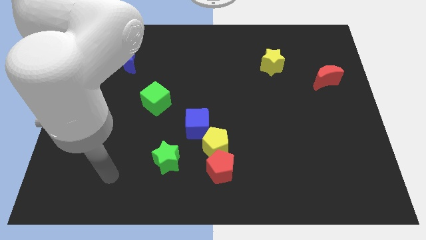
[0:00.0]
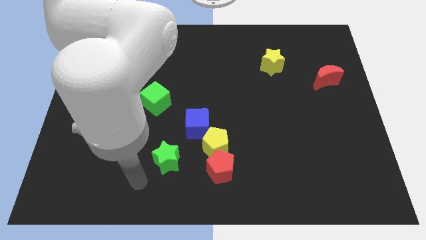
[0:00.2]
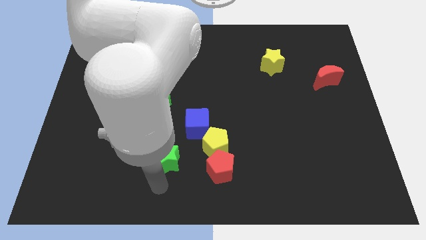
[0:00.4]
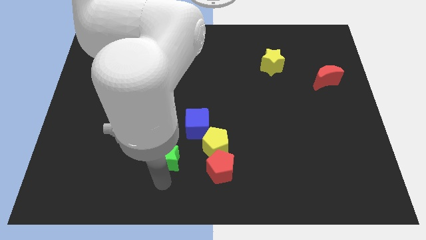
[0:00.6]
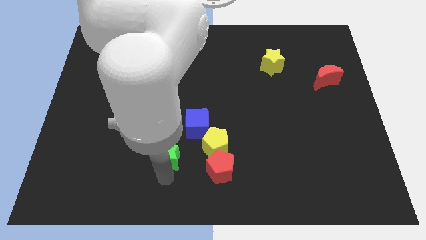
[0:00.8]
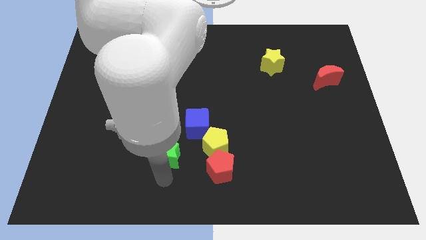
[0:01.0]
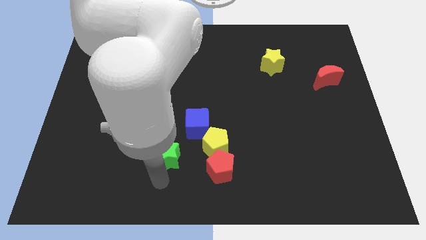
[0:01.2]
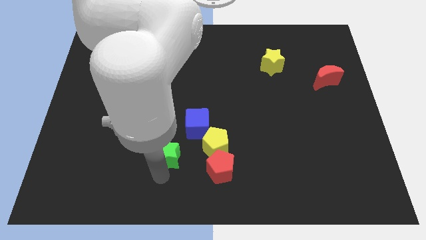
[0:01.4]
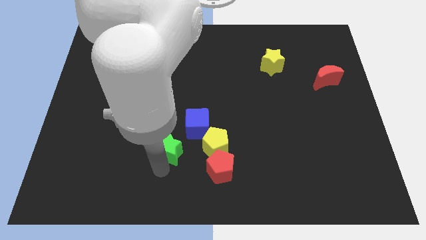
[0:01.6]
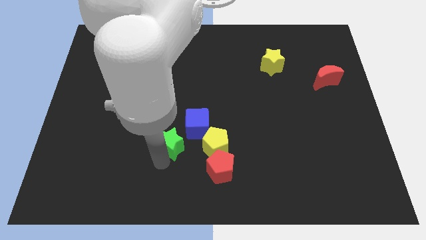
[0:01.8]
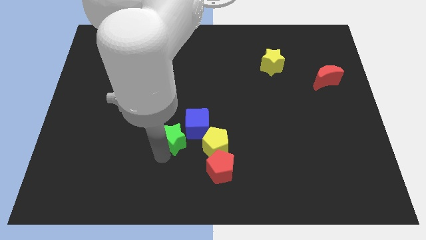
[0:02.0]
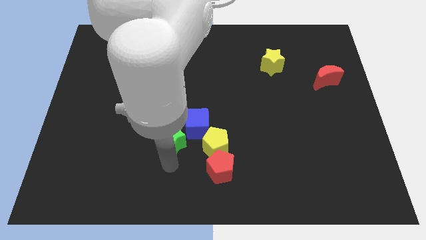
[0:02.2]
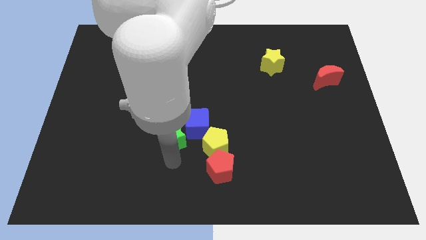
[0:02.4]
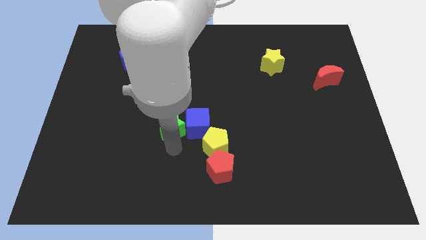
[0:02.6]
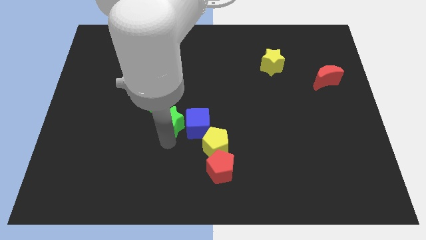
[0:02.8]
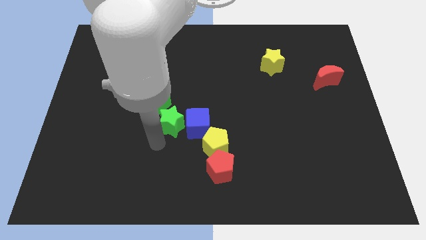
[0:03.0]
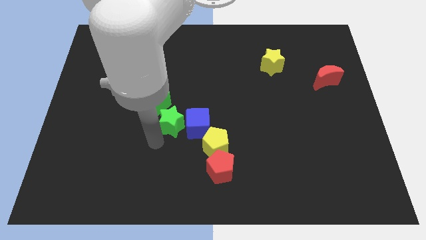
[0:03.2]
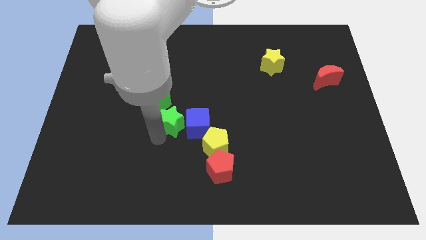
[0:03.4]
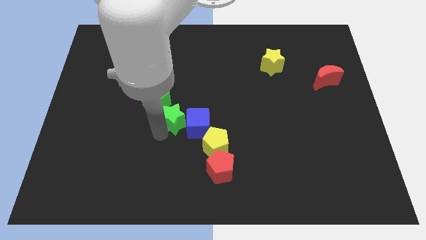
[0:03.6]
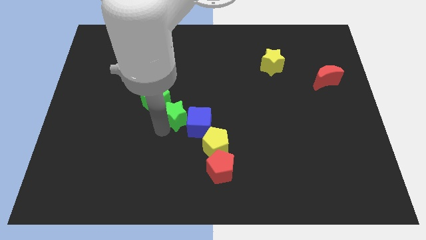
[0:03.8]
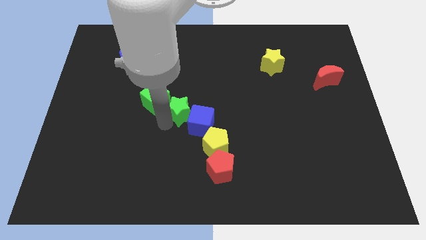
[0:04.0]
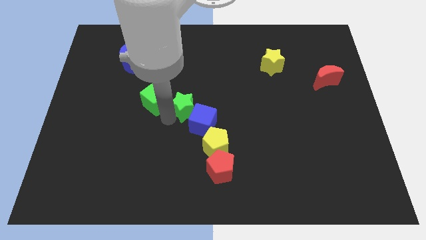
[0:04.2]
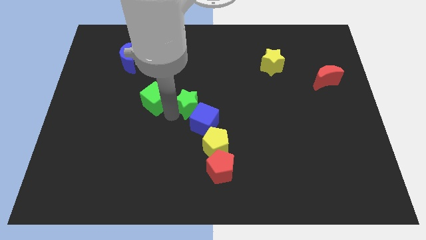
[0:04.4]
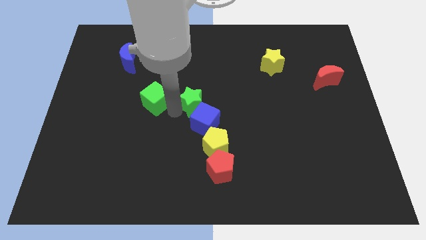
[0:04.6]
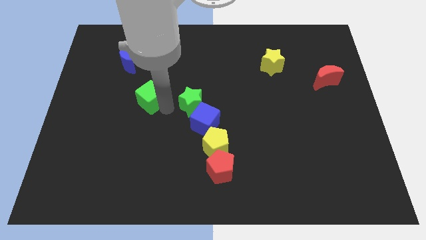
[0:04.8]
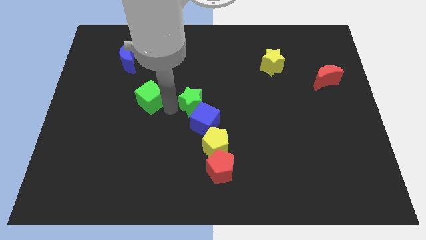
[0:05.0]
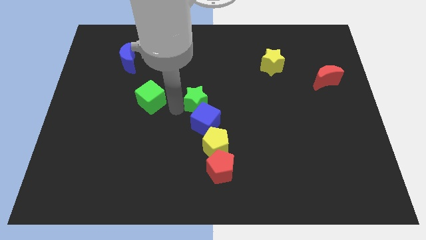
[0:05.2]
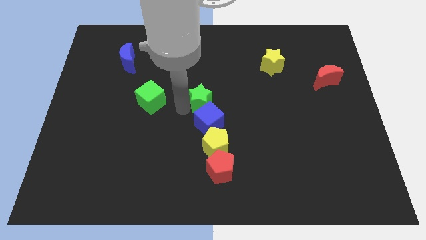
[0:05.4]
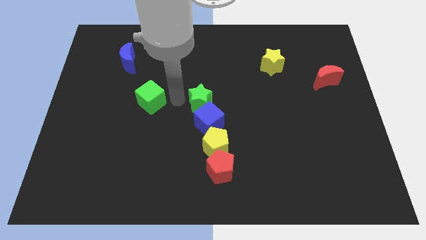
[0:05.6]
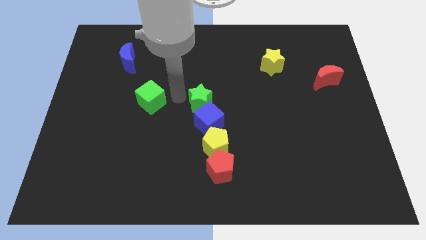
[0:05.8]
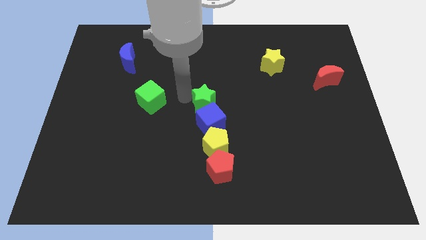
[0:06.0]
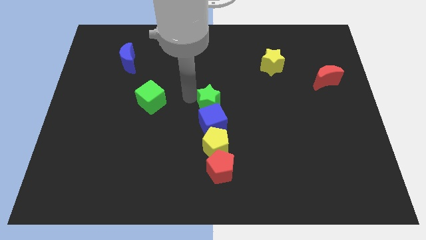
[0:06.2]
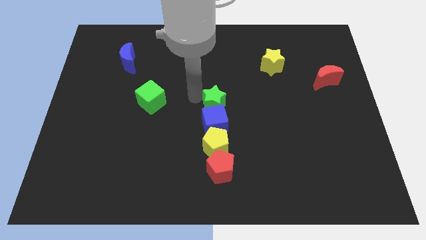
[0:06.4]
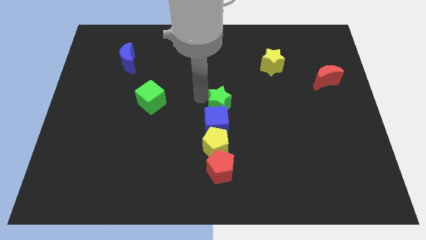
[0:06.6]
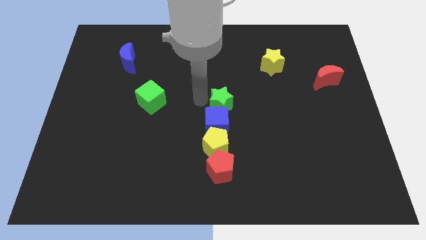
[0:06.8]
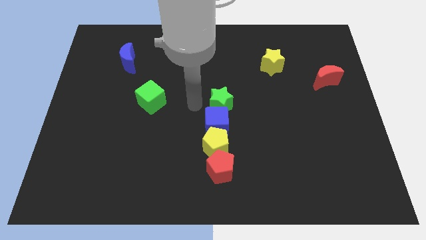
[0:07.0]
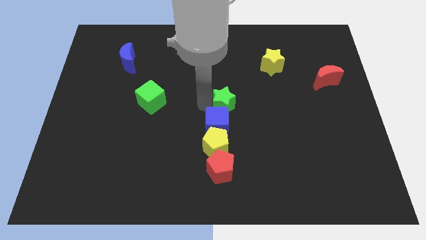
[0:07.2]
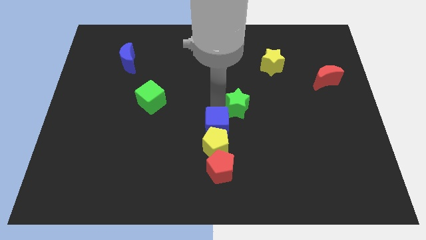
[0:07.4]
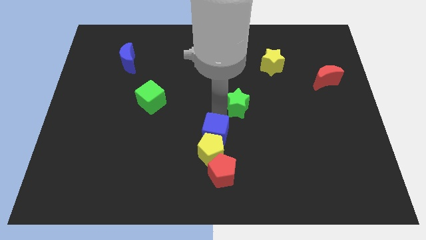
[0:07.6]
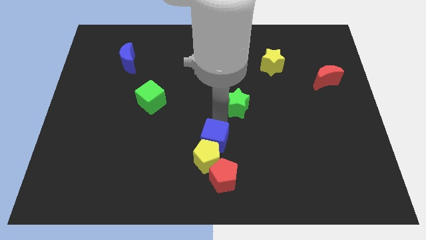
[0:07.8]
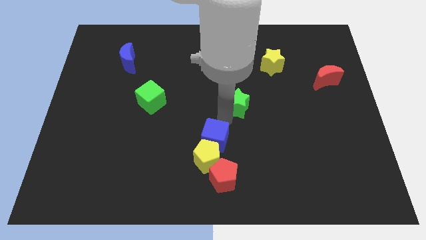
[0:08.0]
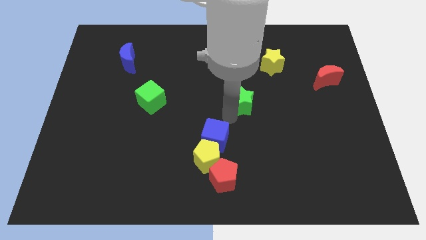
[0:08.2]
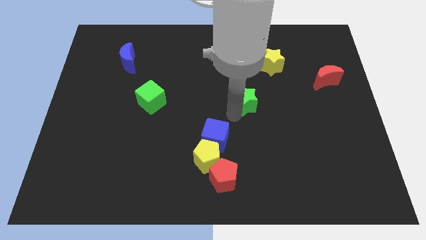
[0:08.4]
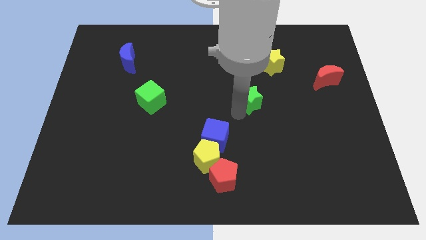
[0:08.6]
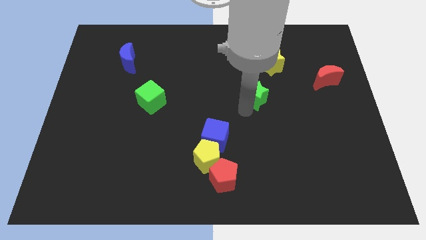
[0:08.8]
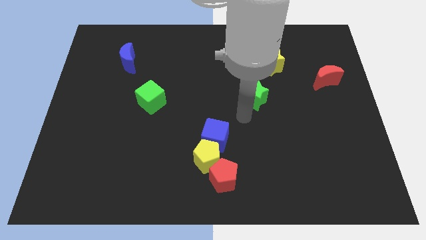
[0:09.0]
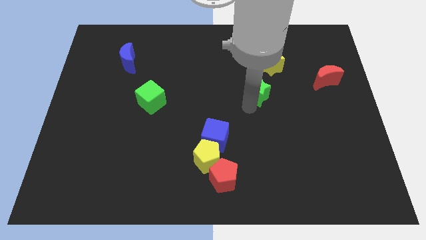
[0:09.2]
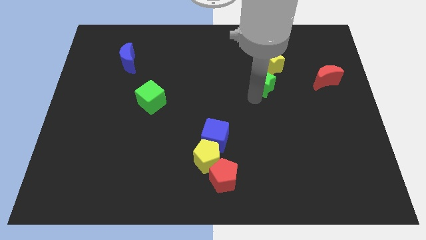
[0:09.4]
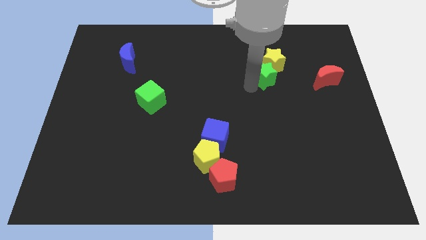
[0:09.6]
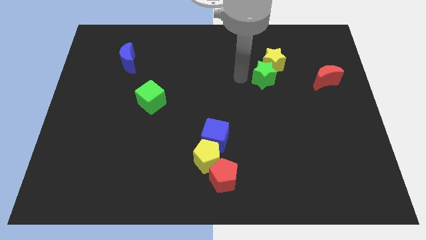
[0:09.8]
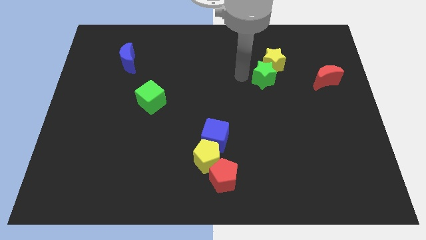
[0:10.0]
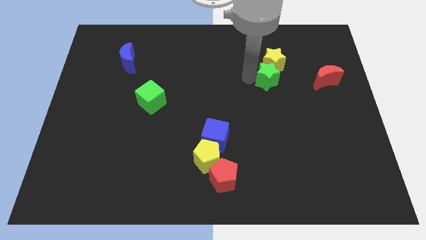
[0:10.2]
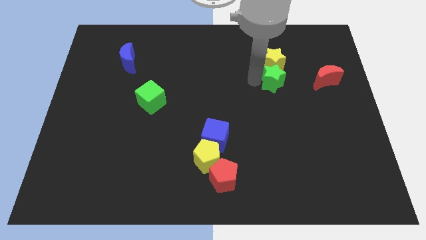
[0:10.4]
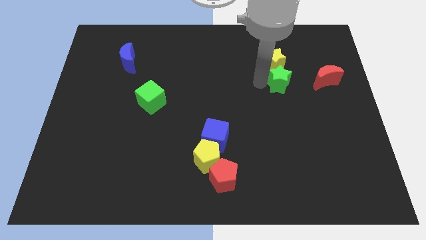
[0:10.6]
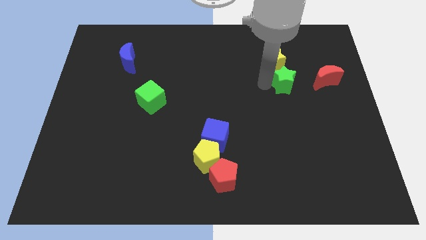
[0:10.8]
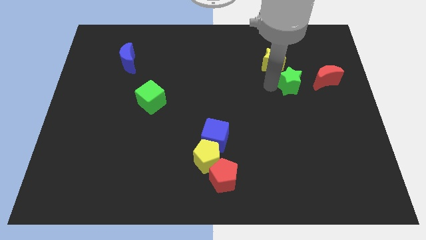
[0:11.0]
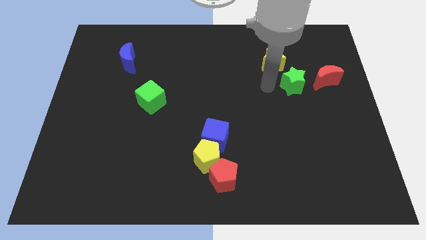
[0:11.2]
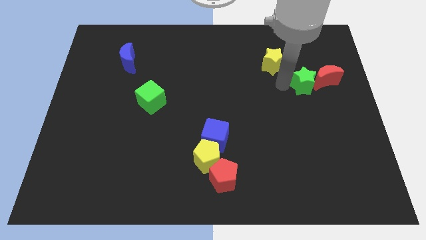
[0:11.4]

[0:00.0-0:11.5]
slide the green star towards the red moon

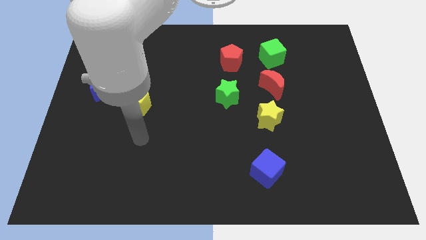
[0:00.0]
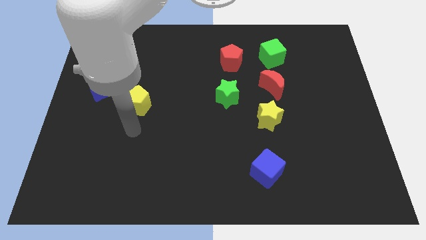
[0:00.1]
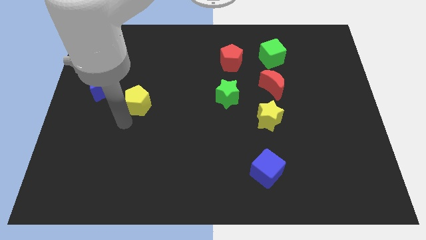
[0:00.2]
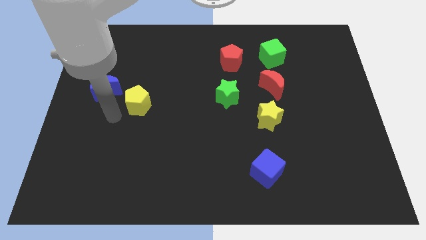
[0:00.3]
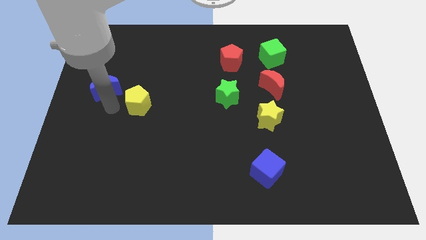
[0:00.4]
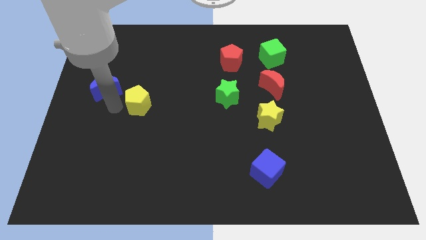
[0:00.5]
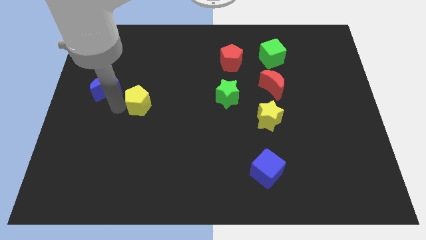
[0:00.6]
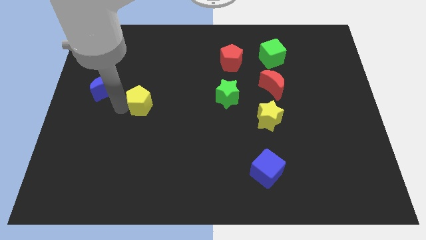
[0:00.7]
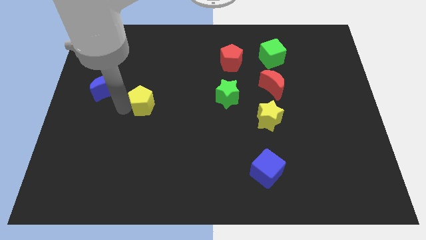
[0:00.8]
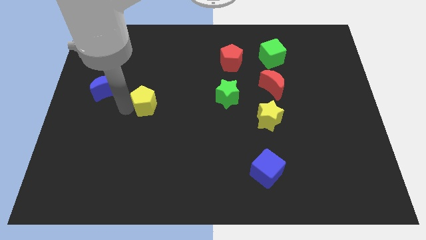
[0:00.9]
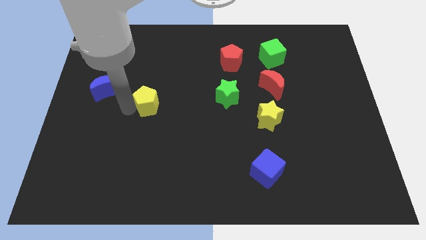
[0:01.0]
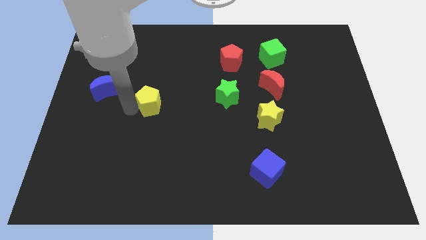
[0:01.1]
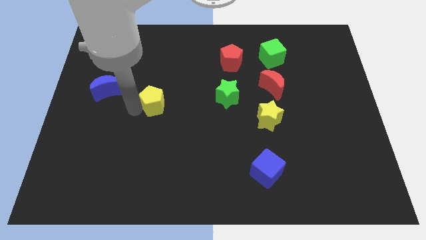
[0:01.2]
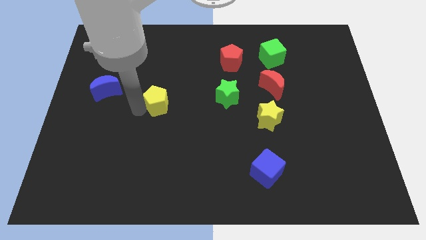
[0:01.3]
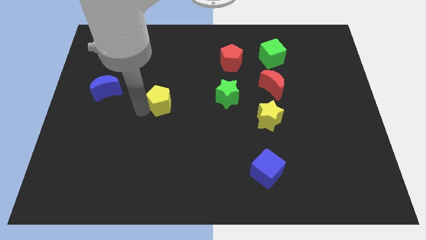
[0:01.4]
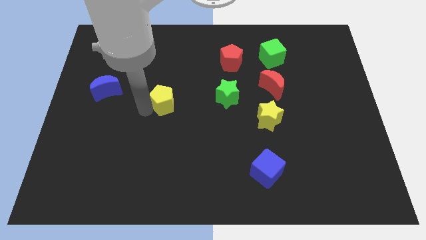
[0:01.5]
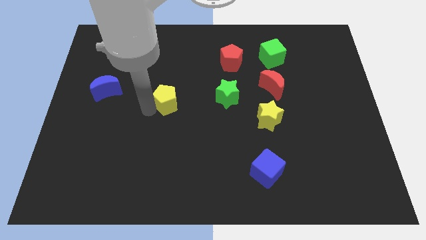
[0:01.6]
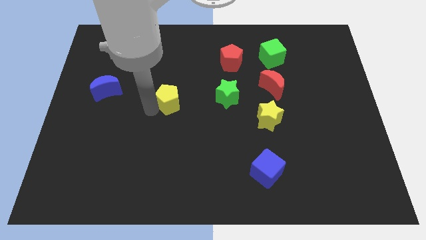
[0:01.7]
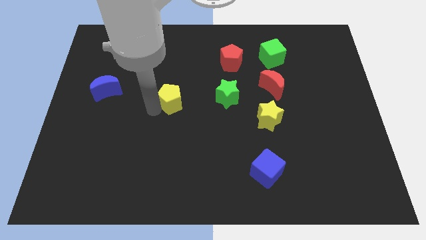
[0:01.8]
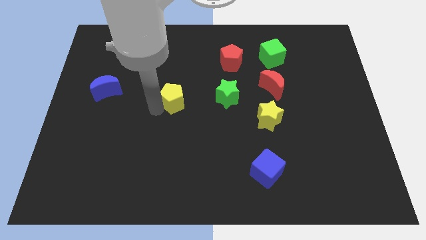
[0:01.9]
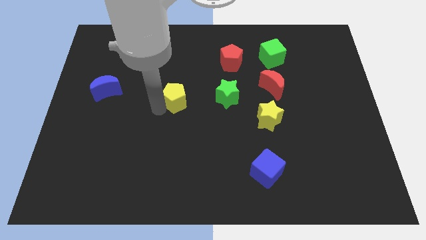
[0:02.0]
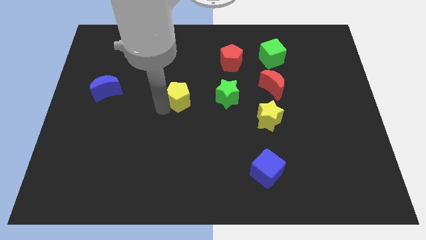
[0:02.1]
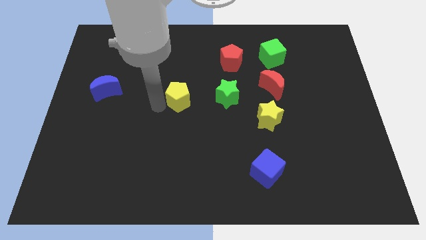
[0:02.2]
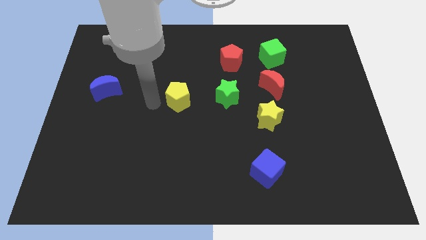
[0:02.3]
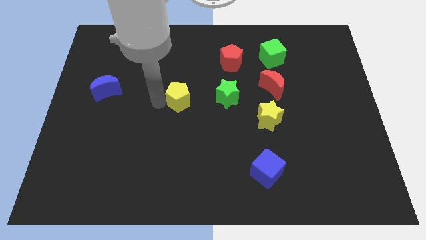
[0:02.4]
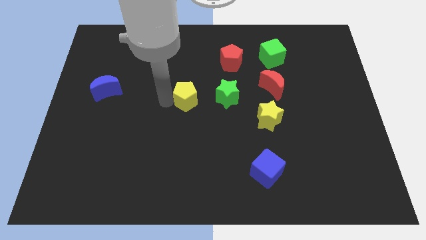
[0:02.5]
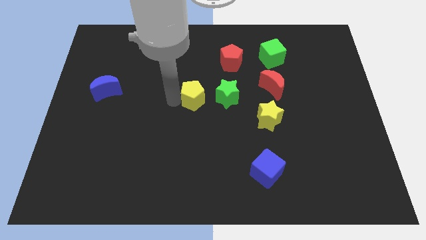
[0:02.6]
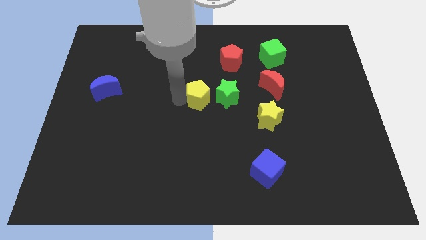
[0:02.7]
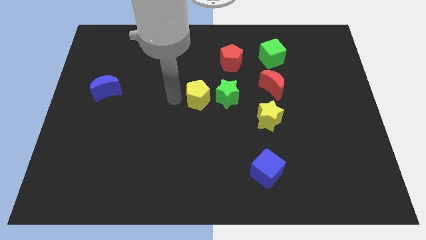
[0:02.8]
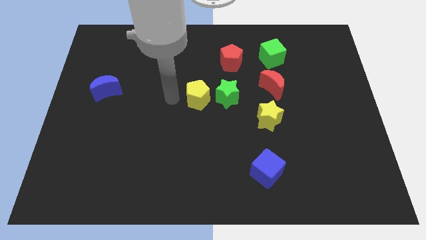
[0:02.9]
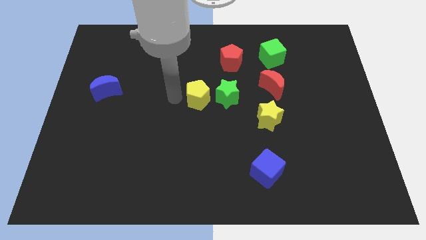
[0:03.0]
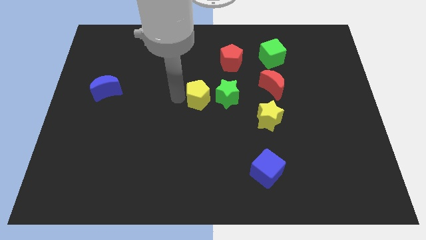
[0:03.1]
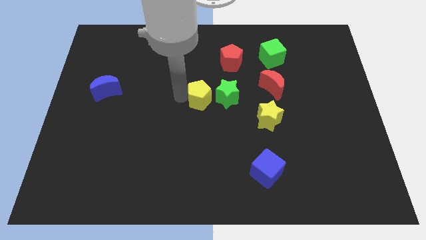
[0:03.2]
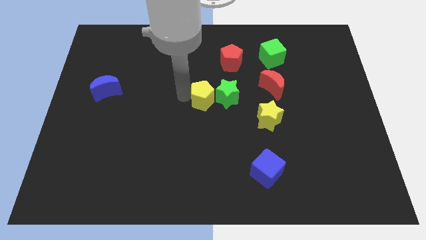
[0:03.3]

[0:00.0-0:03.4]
move the yellow pentagon next to the green star
